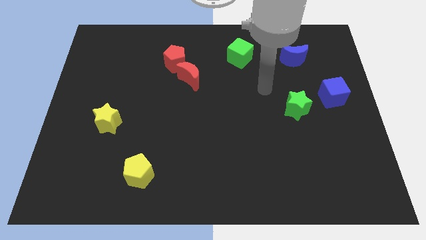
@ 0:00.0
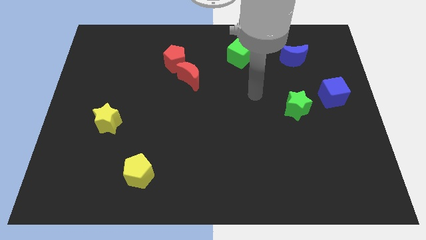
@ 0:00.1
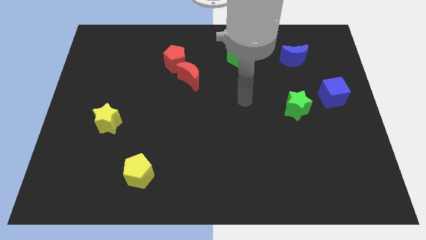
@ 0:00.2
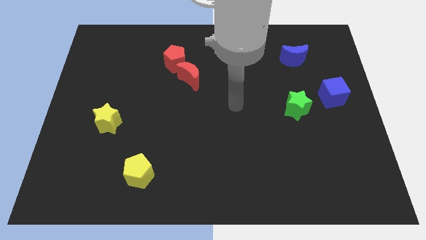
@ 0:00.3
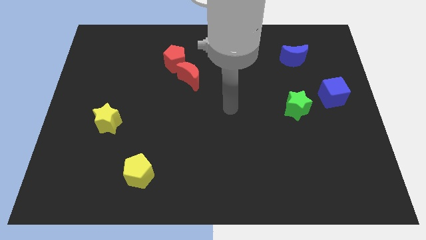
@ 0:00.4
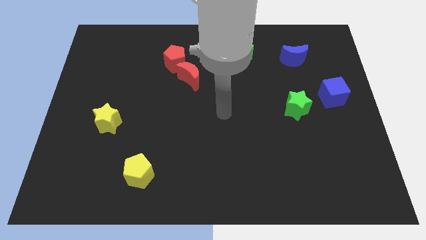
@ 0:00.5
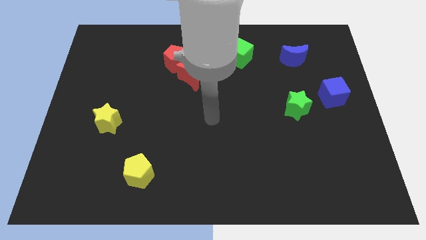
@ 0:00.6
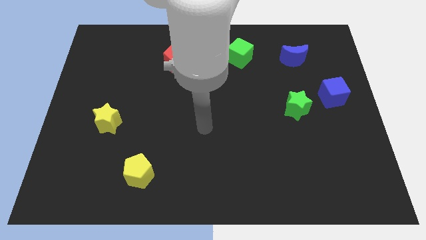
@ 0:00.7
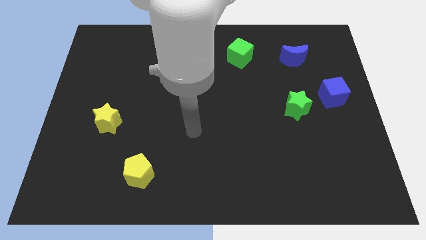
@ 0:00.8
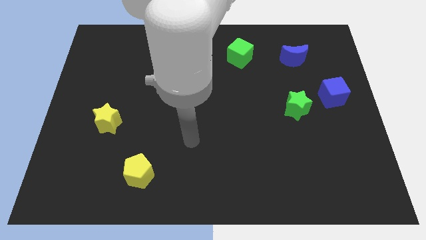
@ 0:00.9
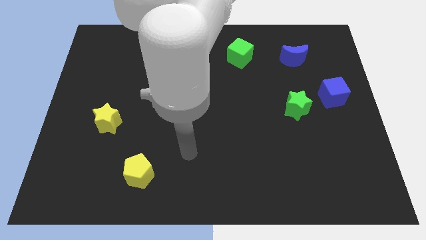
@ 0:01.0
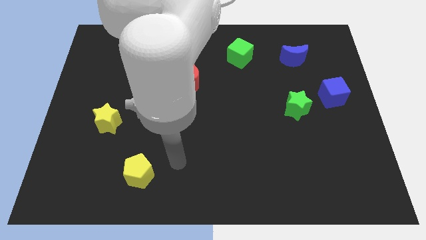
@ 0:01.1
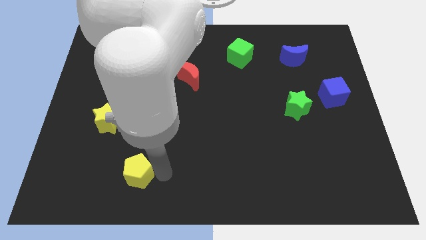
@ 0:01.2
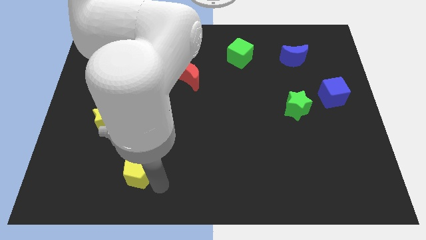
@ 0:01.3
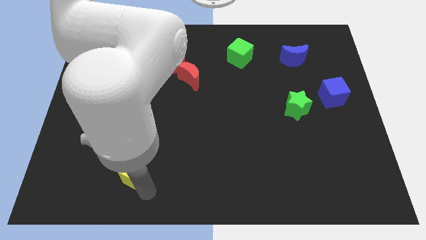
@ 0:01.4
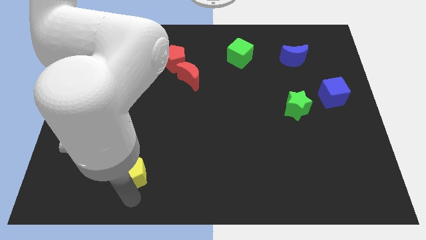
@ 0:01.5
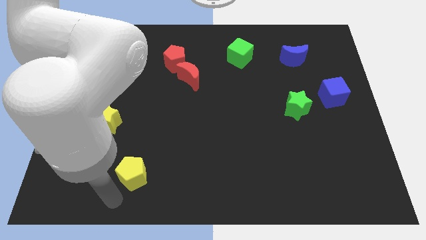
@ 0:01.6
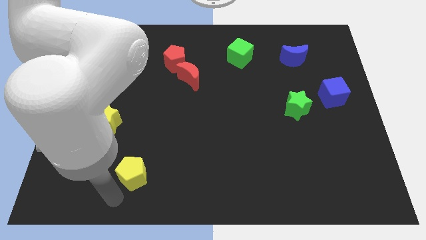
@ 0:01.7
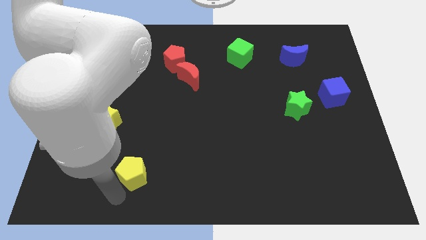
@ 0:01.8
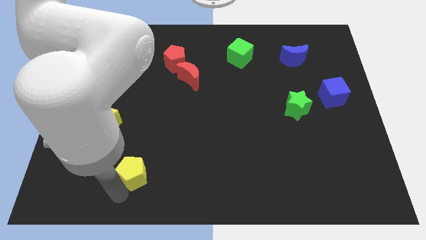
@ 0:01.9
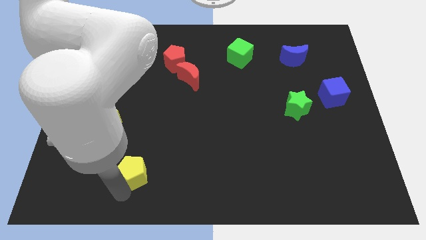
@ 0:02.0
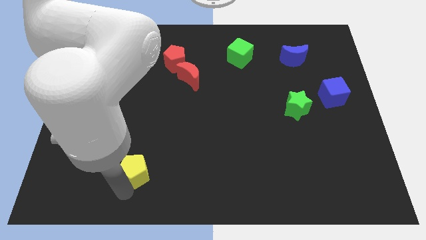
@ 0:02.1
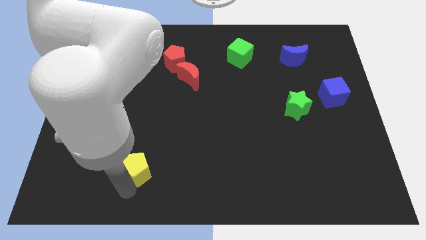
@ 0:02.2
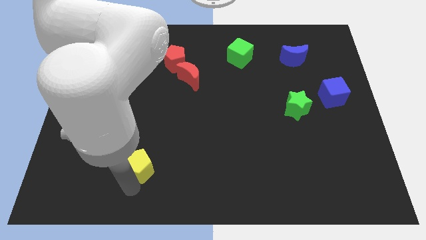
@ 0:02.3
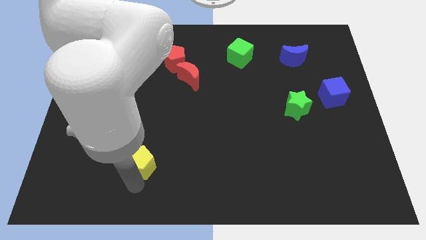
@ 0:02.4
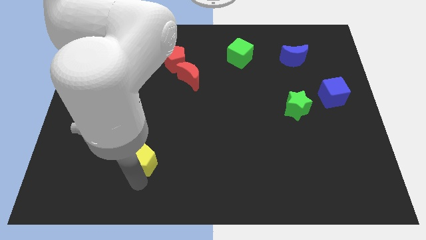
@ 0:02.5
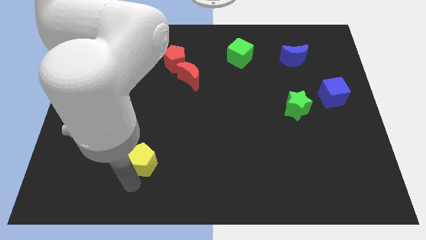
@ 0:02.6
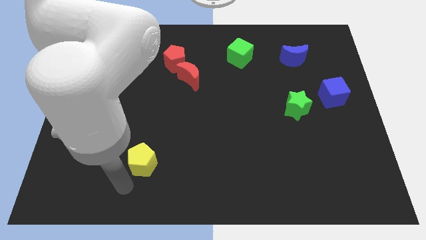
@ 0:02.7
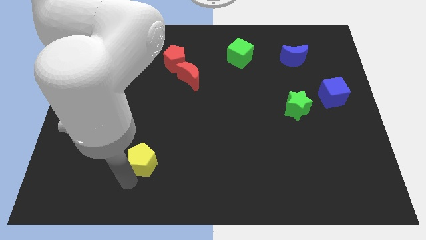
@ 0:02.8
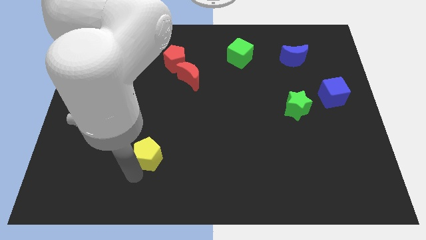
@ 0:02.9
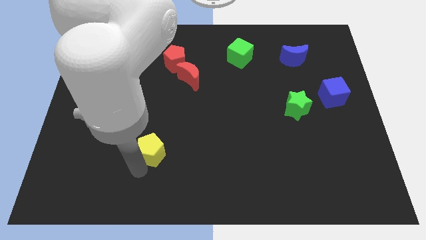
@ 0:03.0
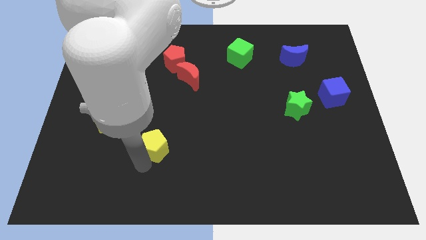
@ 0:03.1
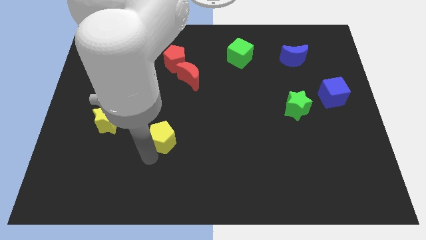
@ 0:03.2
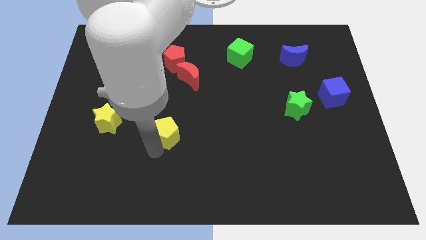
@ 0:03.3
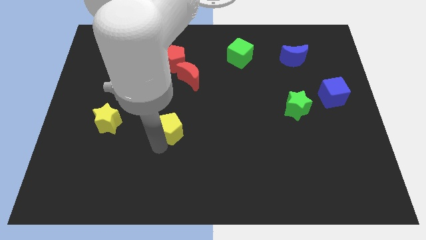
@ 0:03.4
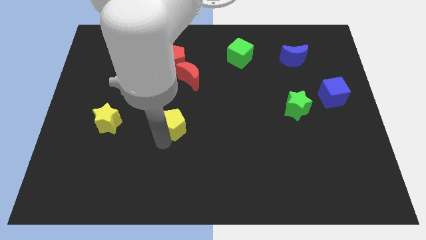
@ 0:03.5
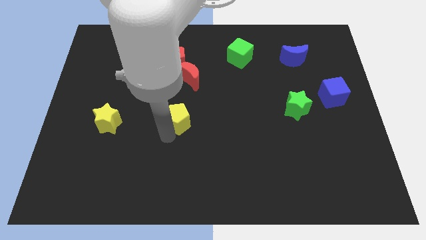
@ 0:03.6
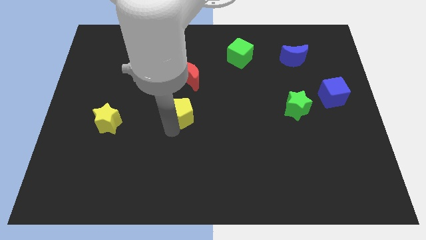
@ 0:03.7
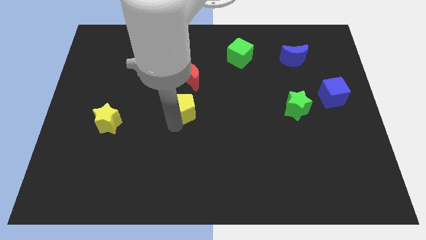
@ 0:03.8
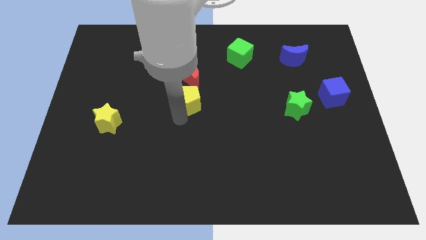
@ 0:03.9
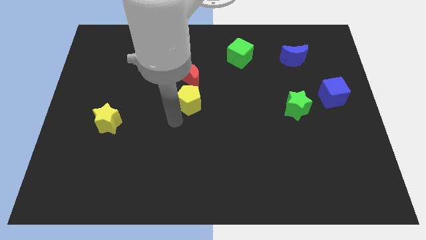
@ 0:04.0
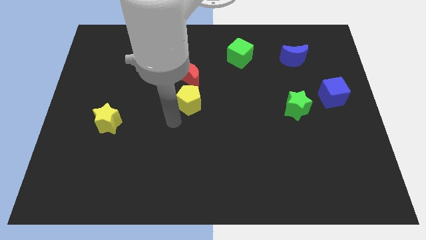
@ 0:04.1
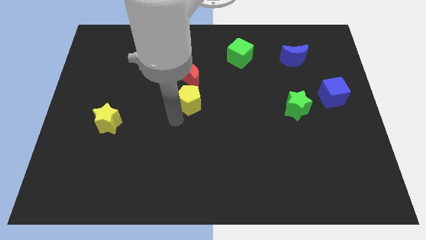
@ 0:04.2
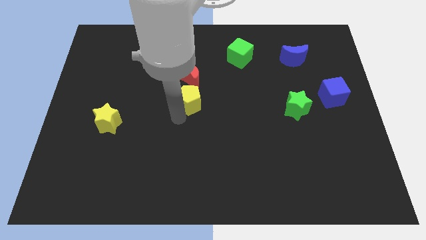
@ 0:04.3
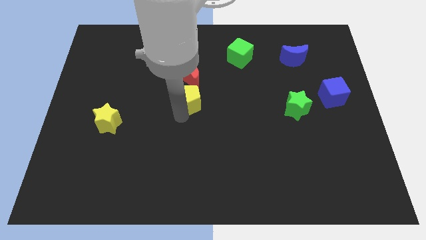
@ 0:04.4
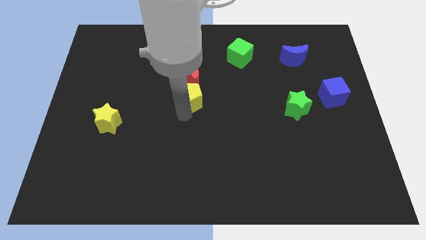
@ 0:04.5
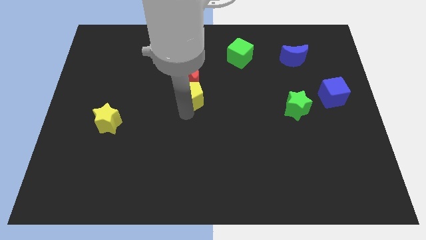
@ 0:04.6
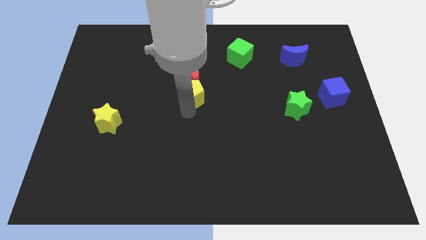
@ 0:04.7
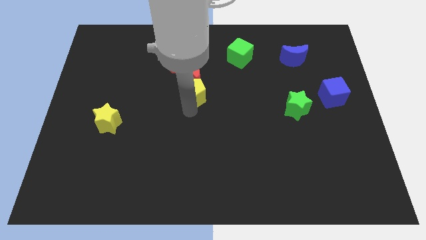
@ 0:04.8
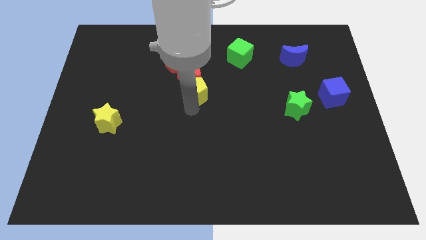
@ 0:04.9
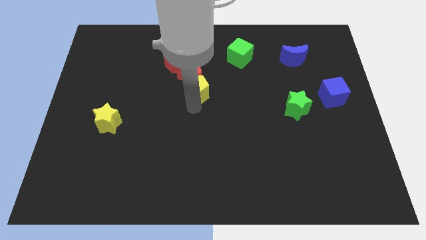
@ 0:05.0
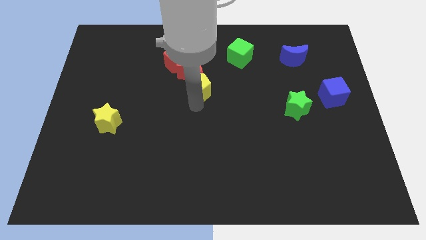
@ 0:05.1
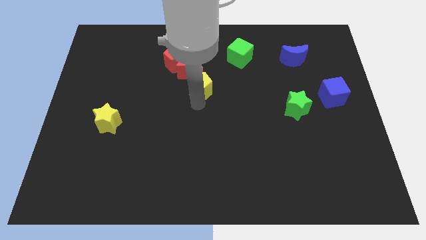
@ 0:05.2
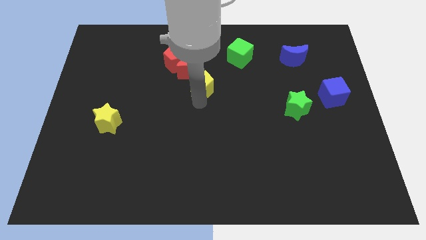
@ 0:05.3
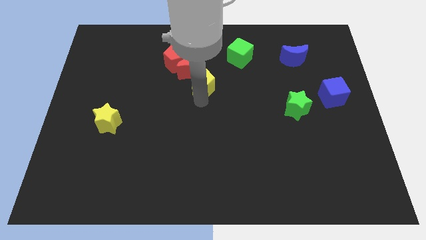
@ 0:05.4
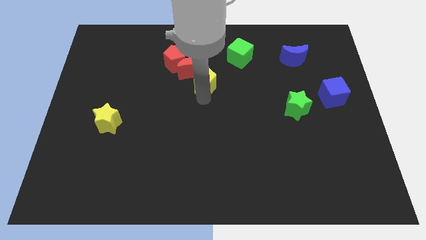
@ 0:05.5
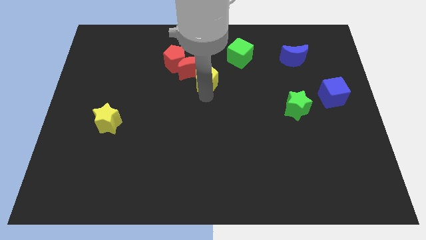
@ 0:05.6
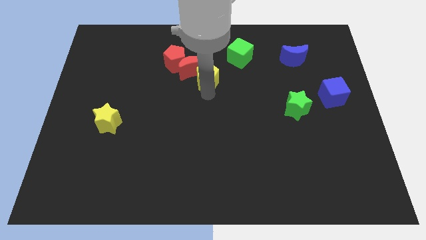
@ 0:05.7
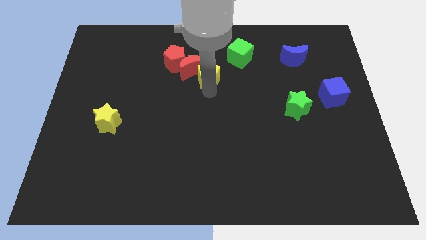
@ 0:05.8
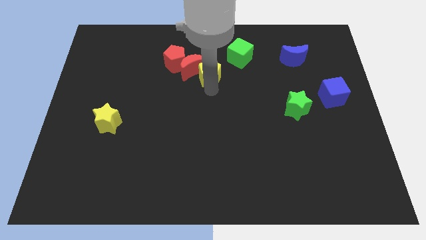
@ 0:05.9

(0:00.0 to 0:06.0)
put the yellow pentagon just right of the red pentagon

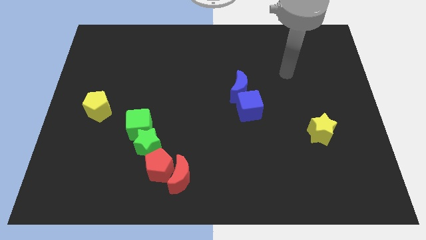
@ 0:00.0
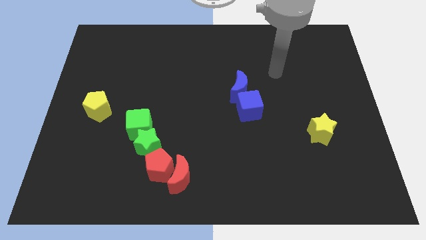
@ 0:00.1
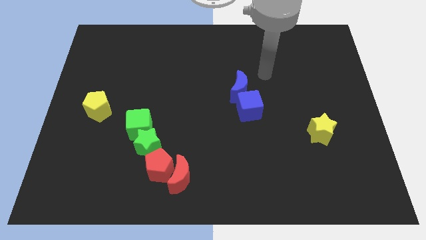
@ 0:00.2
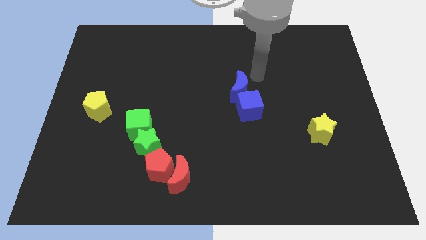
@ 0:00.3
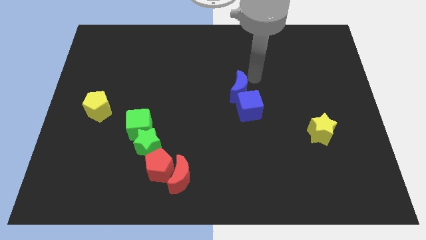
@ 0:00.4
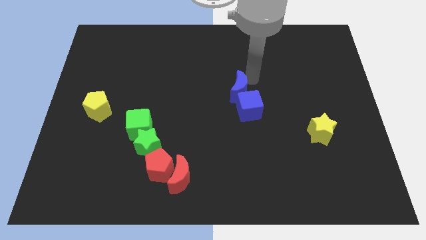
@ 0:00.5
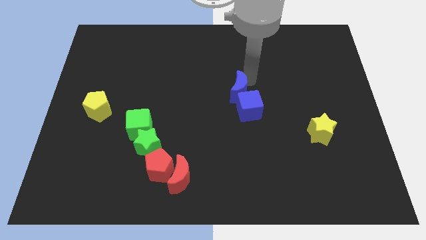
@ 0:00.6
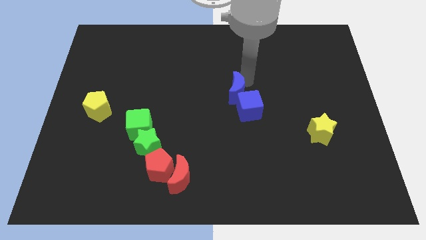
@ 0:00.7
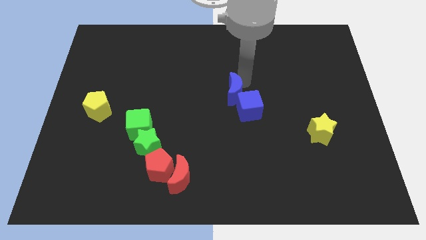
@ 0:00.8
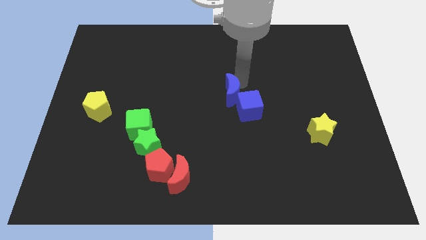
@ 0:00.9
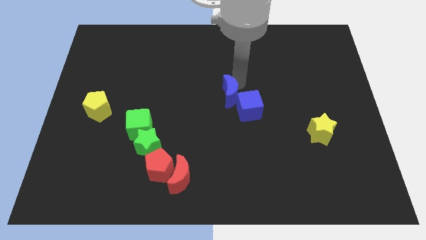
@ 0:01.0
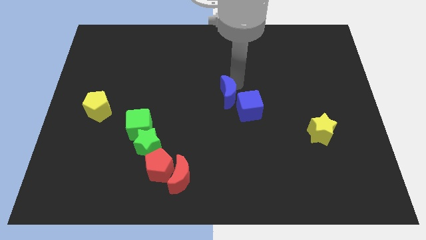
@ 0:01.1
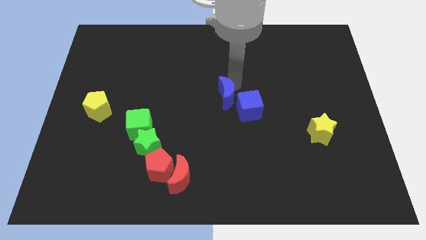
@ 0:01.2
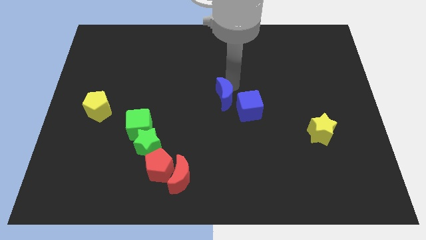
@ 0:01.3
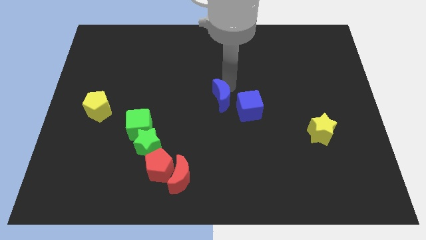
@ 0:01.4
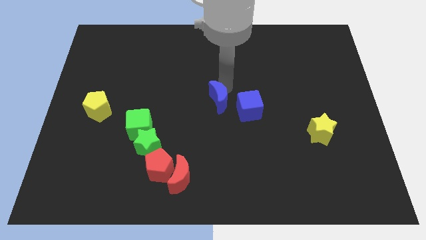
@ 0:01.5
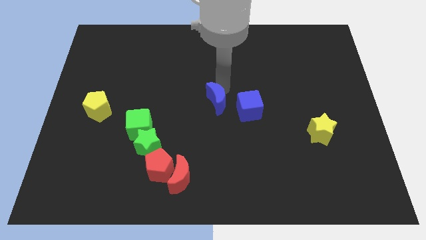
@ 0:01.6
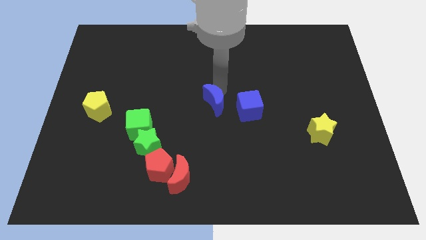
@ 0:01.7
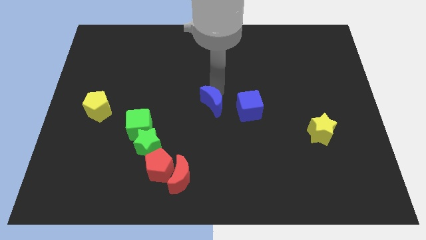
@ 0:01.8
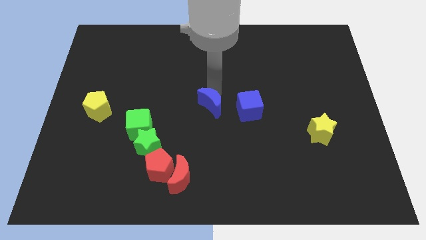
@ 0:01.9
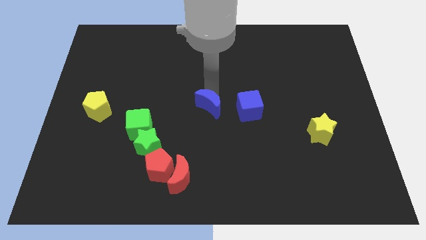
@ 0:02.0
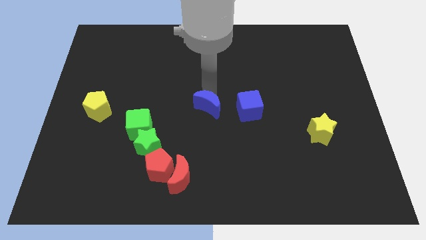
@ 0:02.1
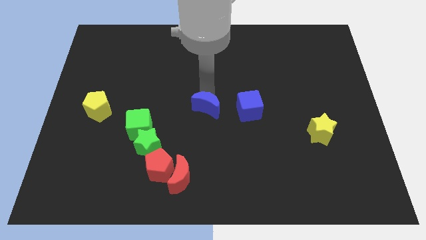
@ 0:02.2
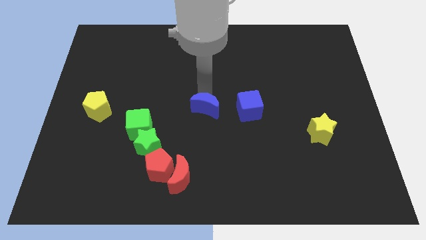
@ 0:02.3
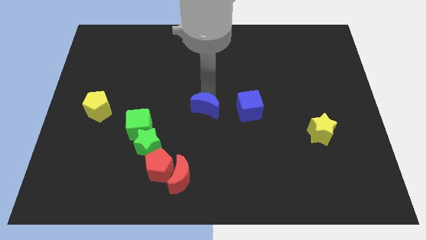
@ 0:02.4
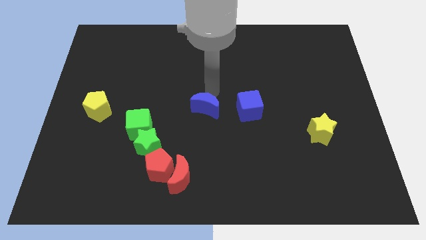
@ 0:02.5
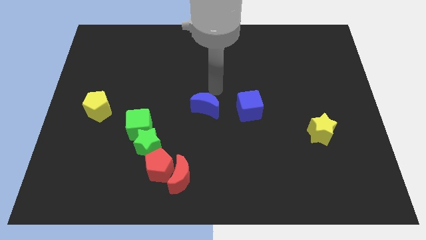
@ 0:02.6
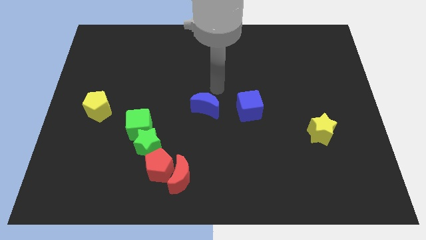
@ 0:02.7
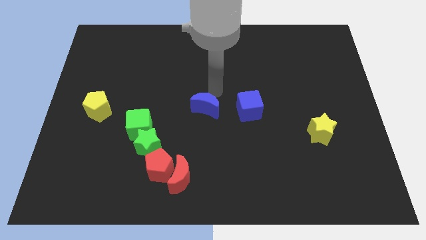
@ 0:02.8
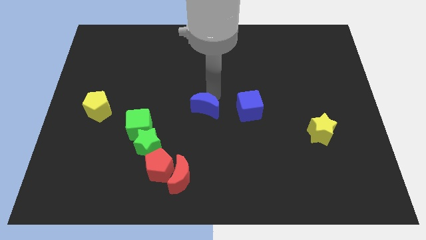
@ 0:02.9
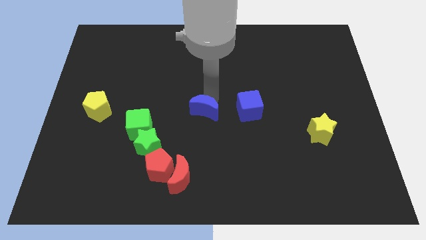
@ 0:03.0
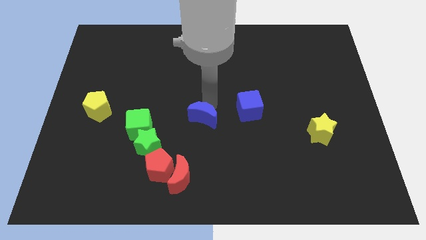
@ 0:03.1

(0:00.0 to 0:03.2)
push the blue moon to the right of the green cube
